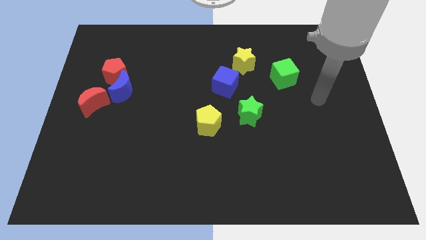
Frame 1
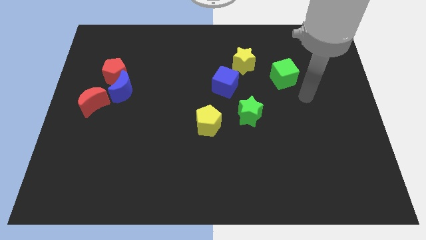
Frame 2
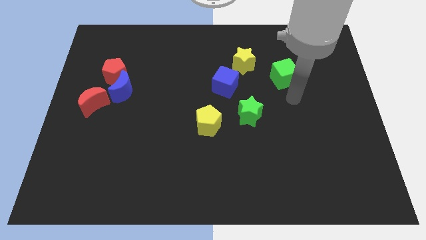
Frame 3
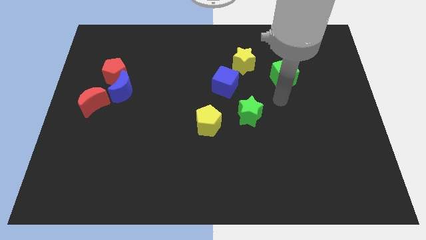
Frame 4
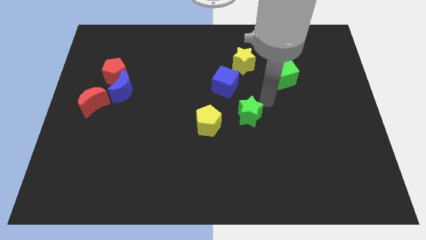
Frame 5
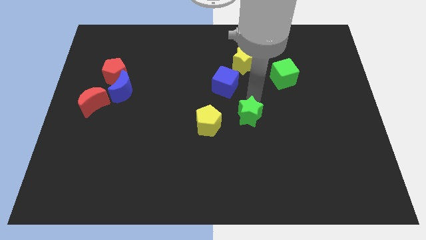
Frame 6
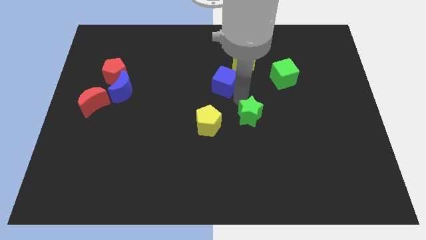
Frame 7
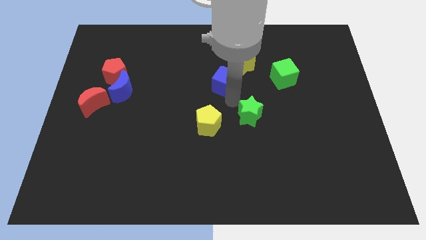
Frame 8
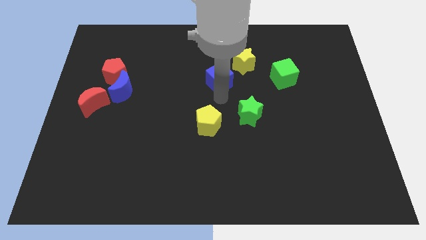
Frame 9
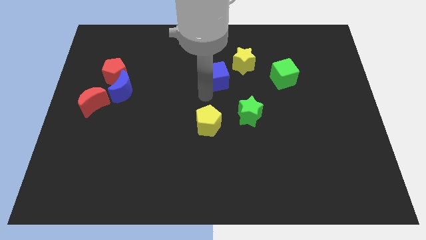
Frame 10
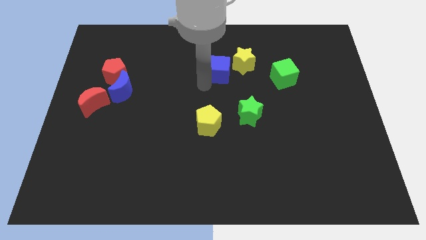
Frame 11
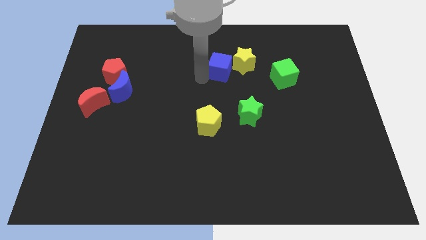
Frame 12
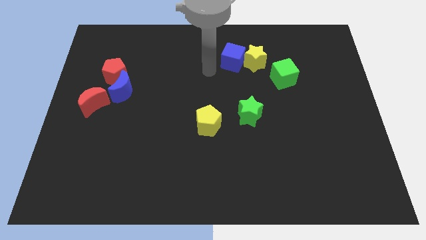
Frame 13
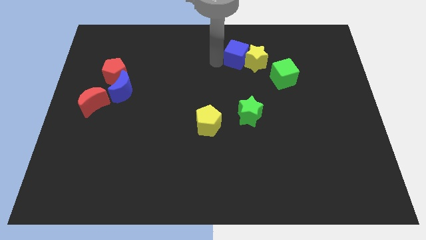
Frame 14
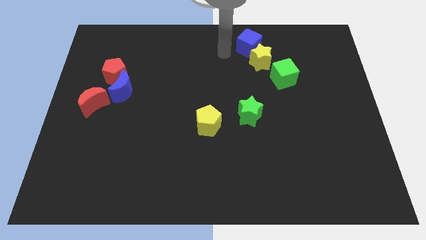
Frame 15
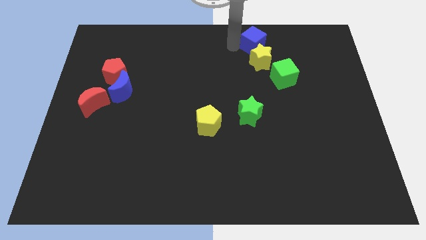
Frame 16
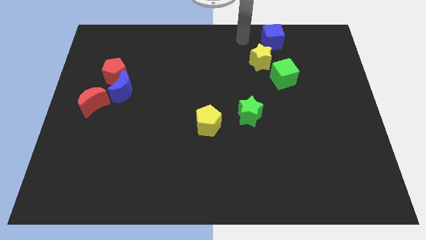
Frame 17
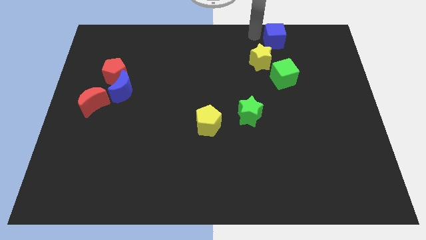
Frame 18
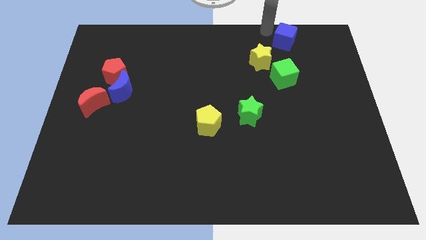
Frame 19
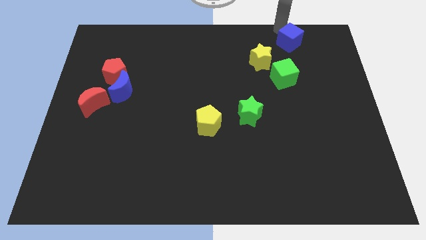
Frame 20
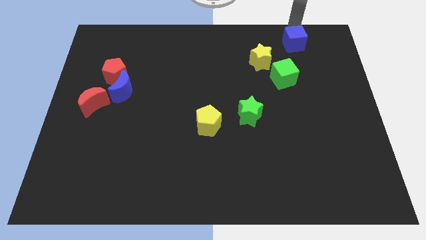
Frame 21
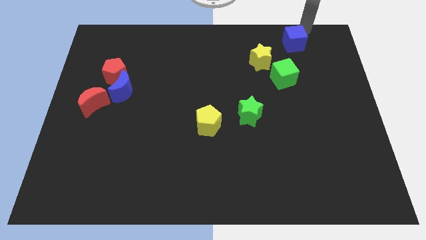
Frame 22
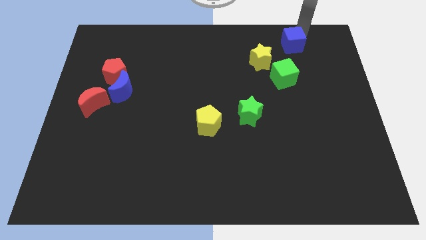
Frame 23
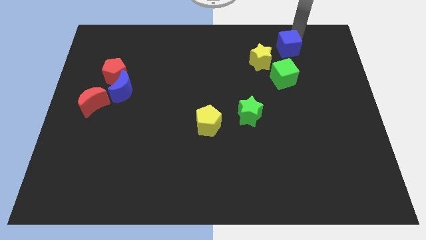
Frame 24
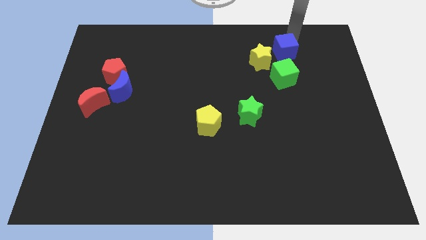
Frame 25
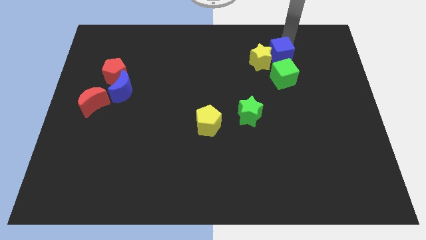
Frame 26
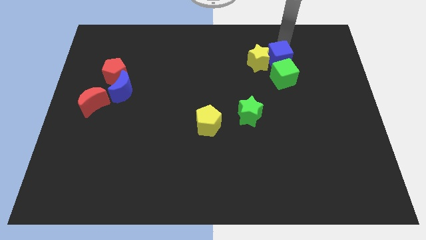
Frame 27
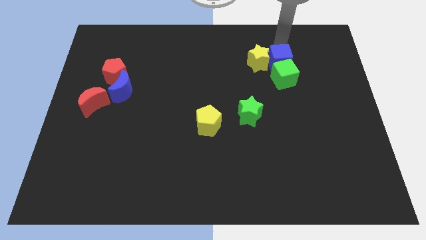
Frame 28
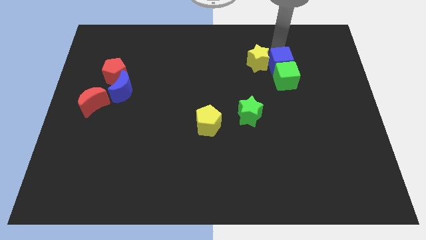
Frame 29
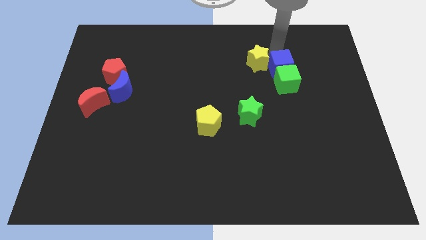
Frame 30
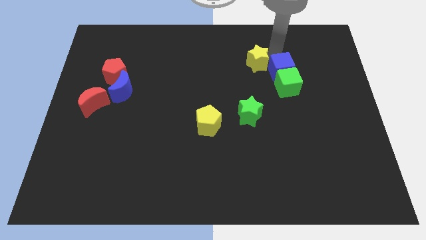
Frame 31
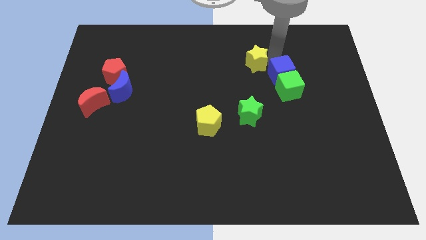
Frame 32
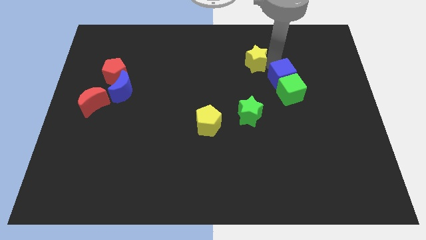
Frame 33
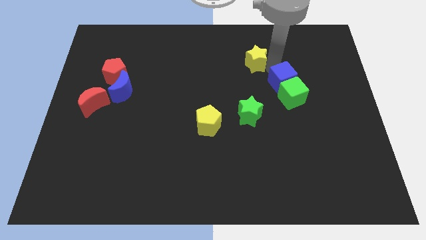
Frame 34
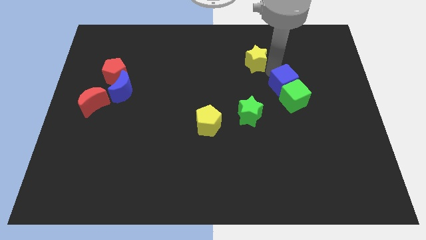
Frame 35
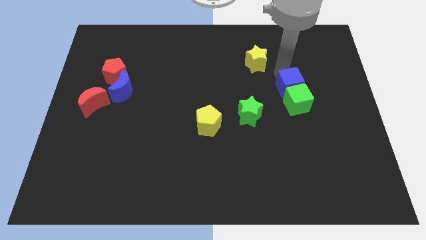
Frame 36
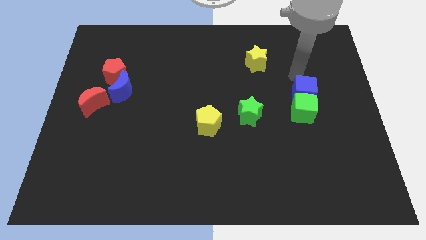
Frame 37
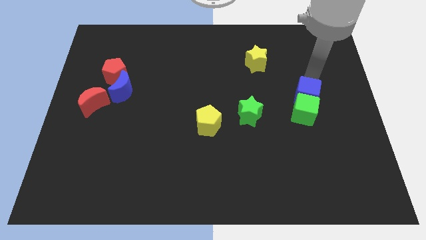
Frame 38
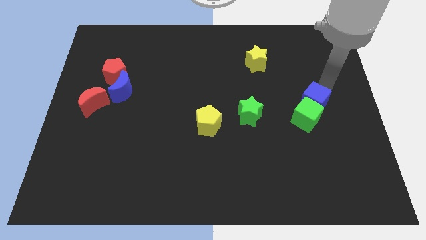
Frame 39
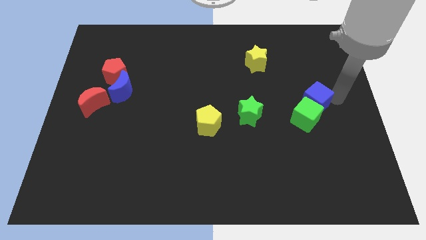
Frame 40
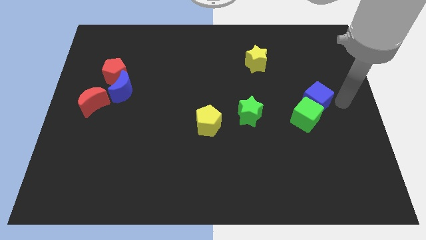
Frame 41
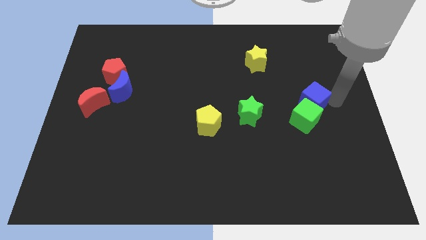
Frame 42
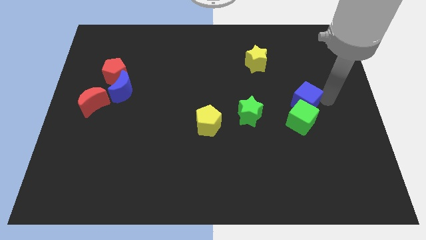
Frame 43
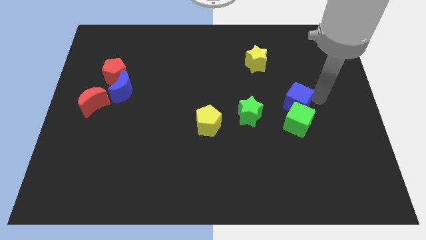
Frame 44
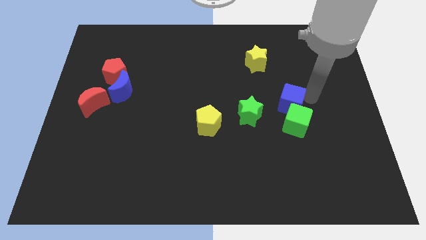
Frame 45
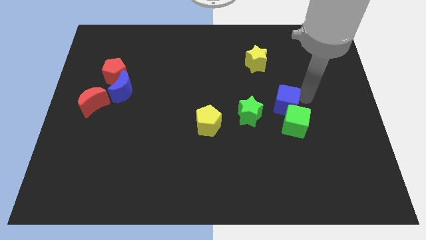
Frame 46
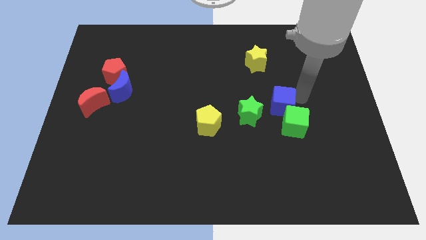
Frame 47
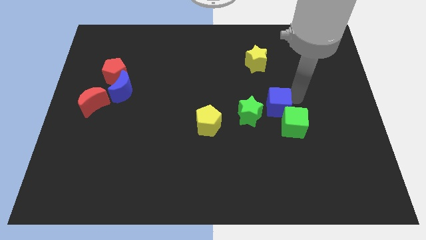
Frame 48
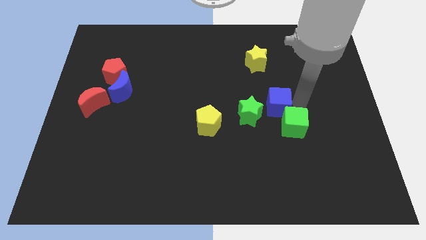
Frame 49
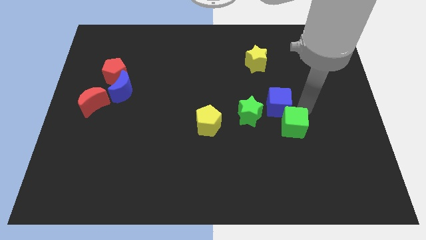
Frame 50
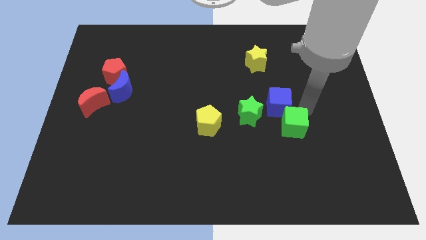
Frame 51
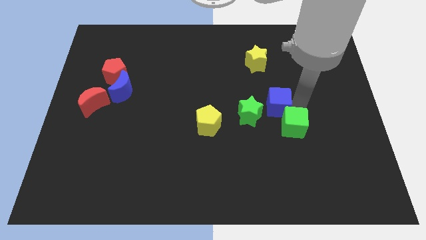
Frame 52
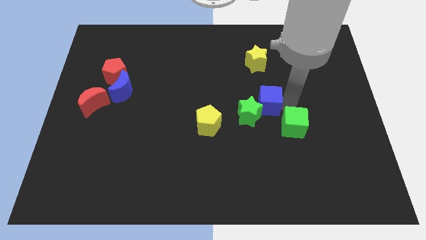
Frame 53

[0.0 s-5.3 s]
slide the blue cube next to the green star

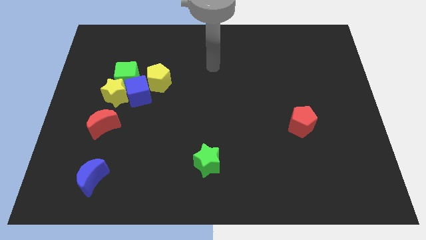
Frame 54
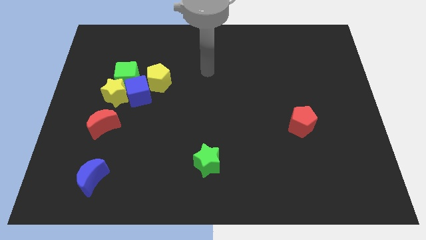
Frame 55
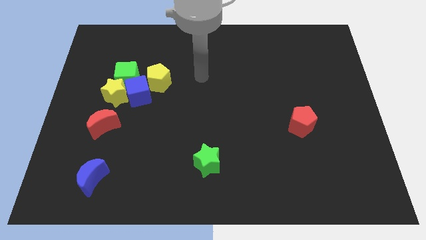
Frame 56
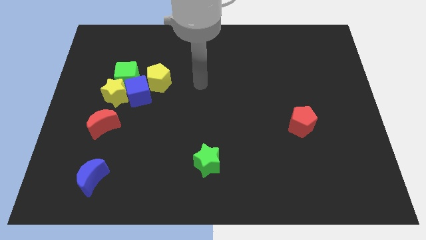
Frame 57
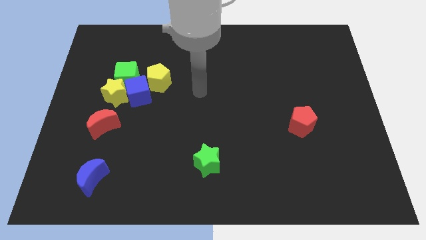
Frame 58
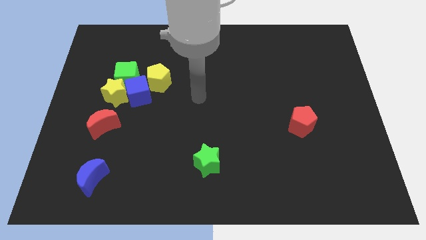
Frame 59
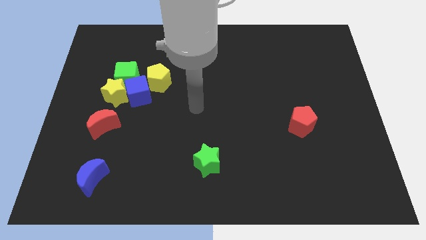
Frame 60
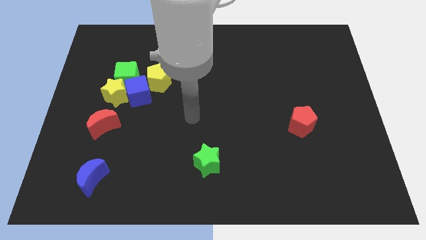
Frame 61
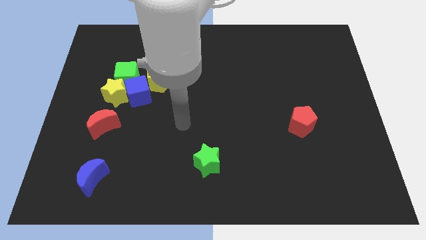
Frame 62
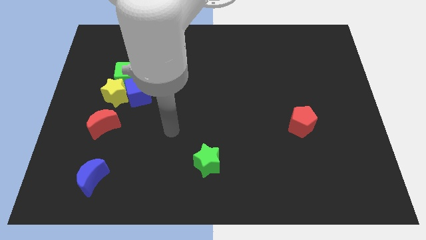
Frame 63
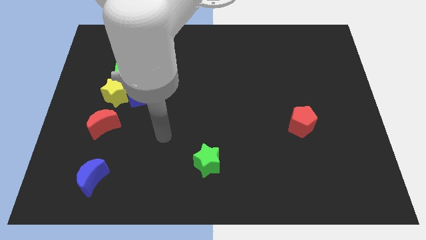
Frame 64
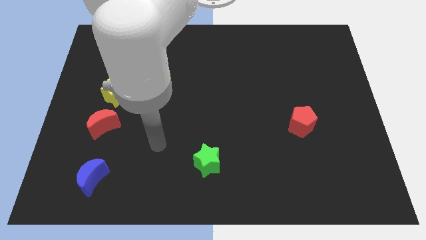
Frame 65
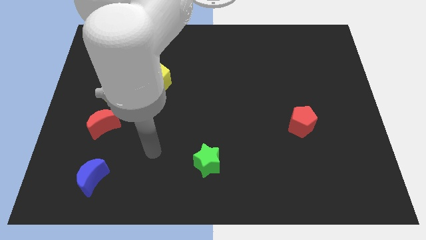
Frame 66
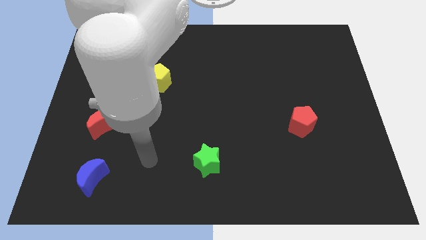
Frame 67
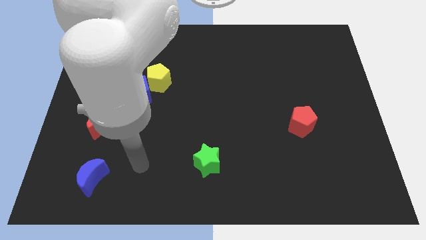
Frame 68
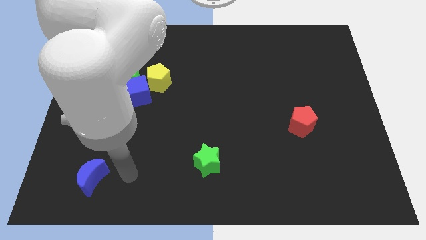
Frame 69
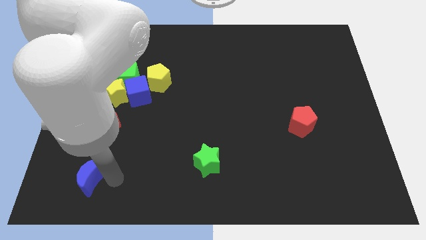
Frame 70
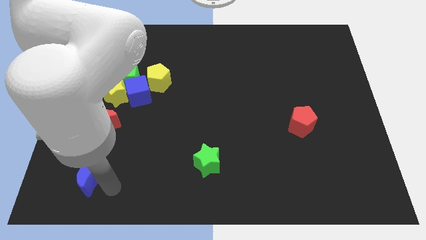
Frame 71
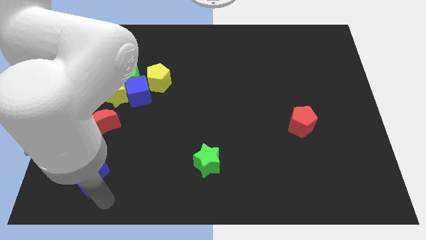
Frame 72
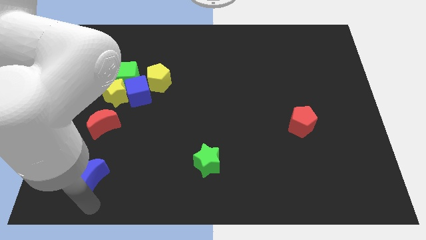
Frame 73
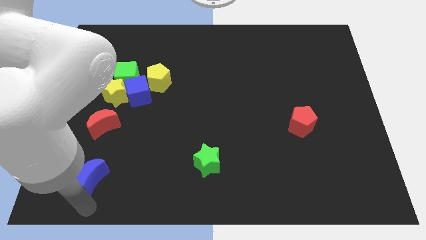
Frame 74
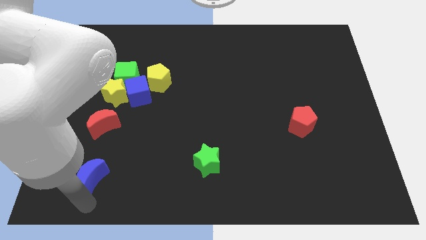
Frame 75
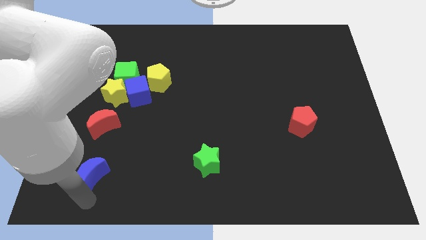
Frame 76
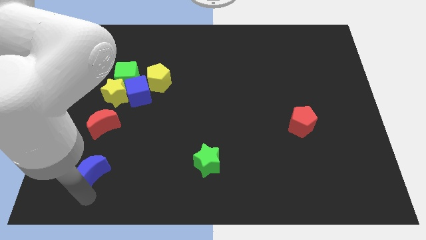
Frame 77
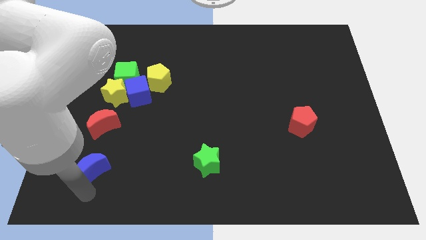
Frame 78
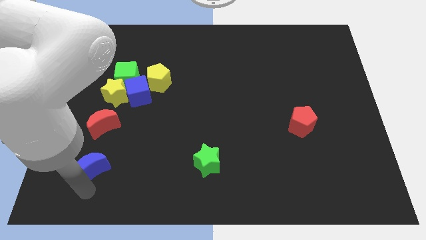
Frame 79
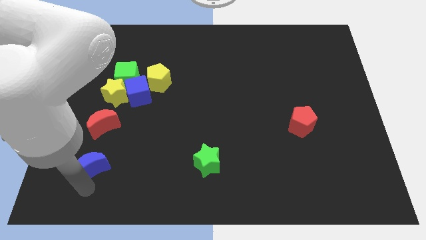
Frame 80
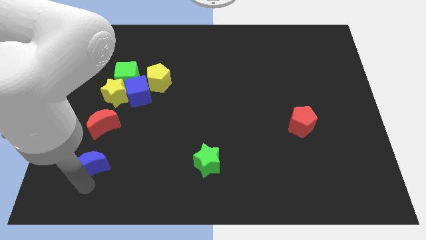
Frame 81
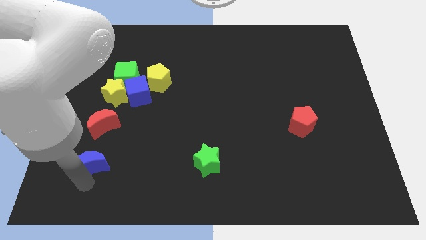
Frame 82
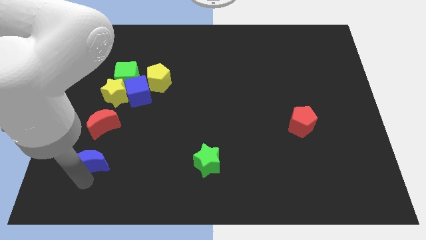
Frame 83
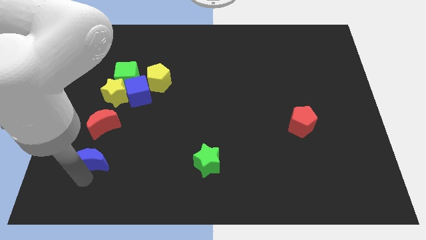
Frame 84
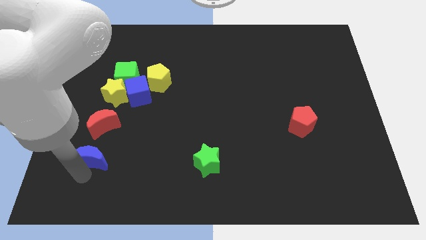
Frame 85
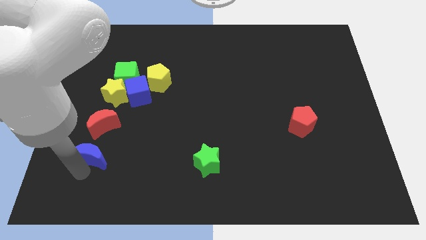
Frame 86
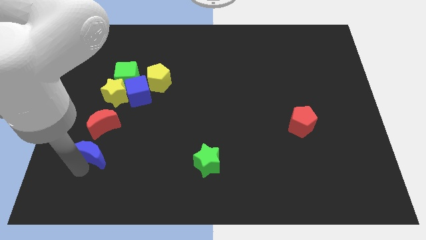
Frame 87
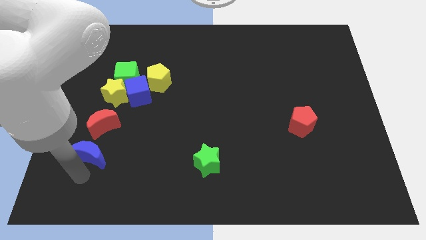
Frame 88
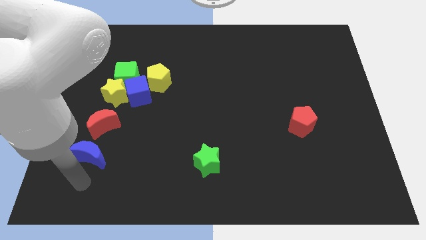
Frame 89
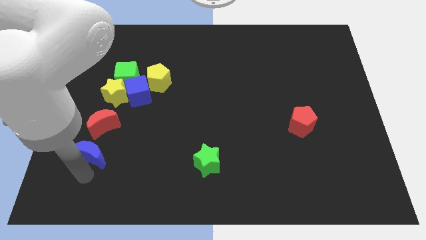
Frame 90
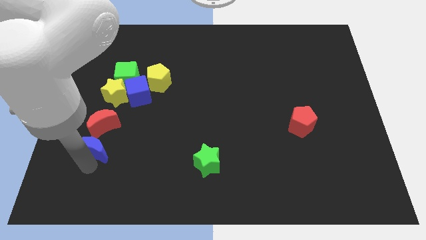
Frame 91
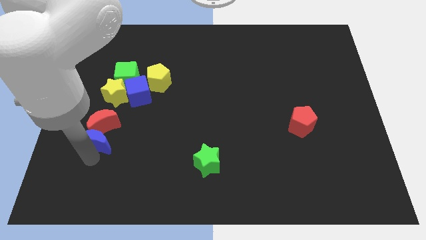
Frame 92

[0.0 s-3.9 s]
slide the blue moon next to the red moon
